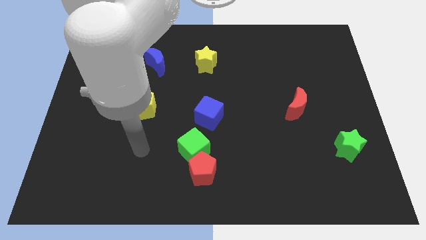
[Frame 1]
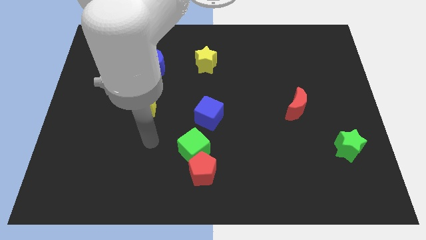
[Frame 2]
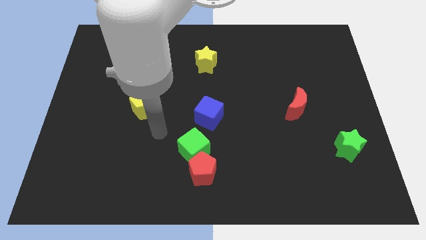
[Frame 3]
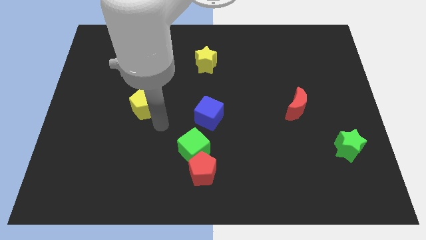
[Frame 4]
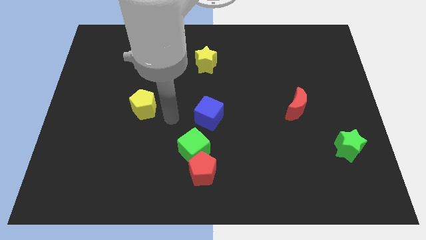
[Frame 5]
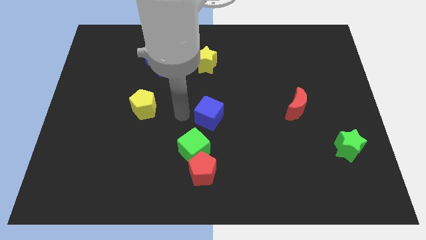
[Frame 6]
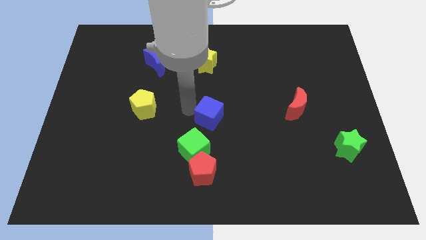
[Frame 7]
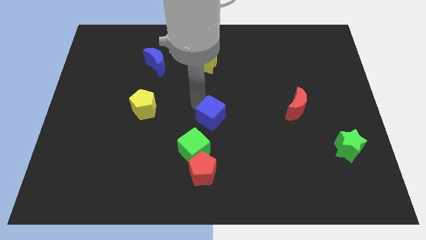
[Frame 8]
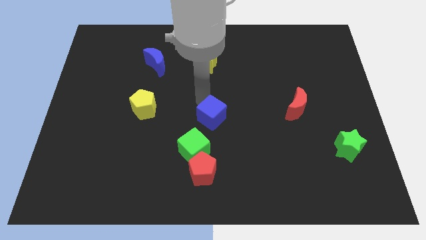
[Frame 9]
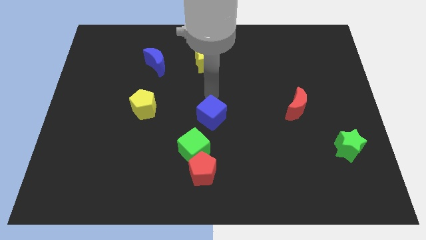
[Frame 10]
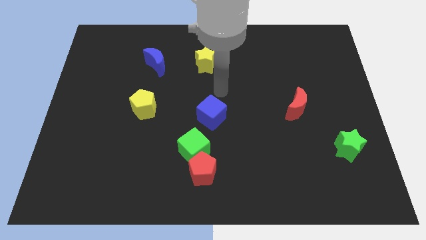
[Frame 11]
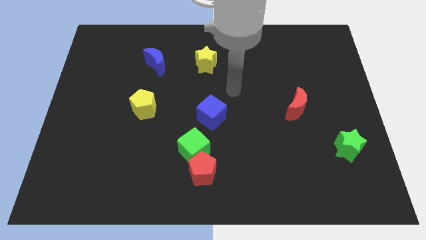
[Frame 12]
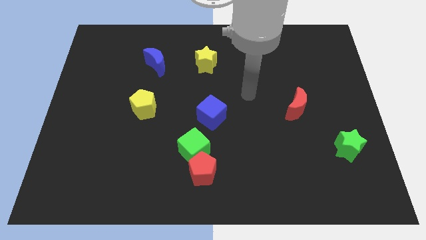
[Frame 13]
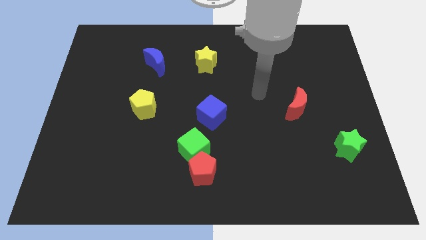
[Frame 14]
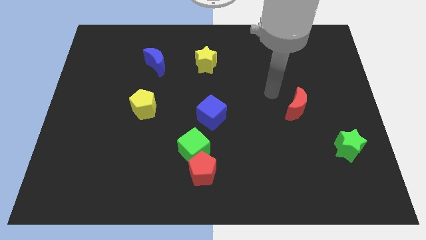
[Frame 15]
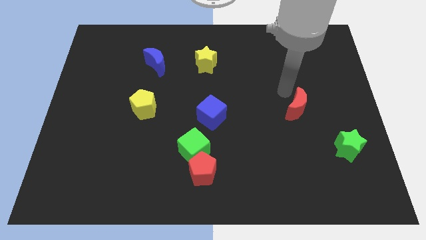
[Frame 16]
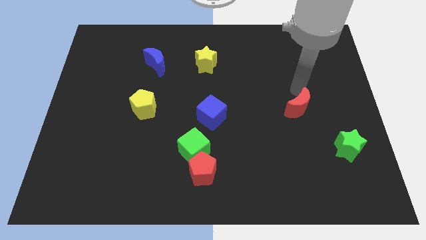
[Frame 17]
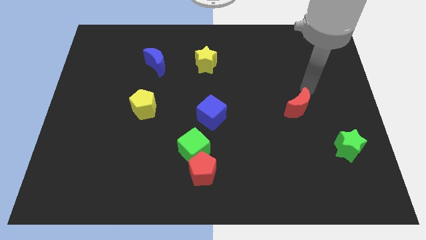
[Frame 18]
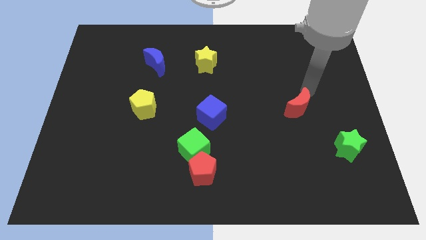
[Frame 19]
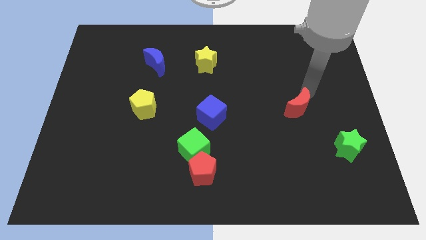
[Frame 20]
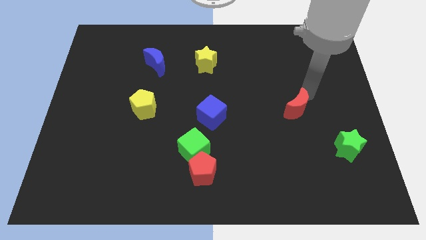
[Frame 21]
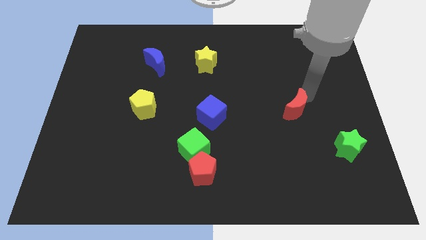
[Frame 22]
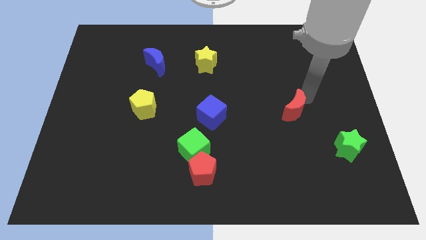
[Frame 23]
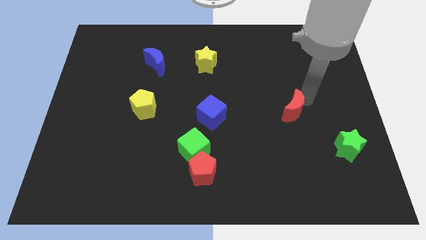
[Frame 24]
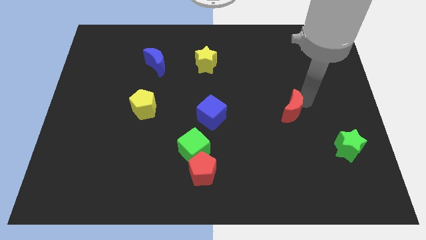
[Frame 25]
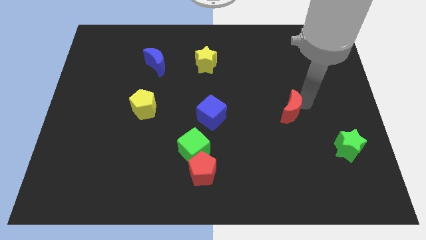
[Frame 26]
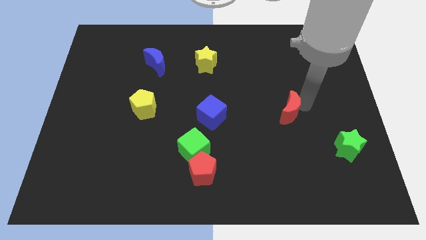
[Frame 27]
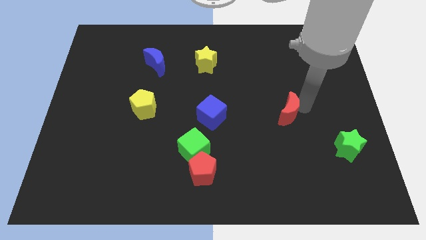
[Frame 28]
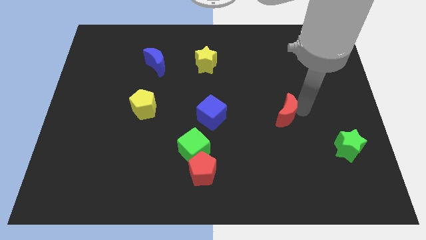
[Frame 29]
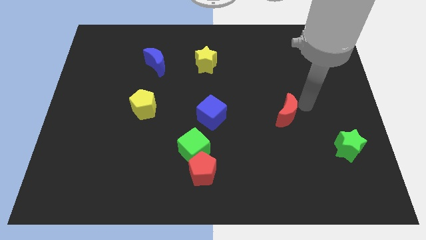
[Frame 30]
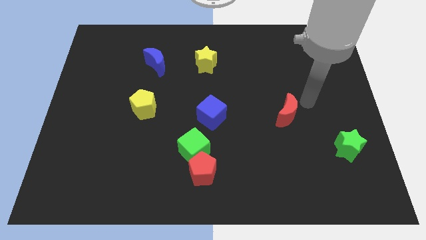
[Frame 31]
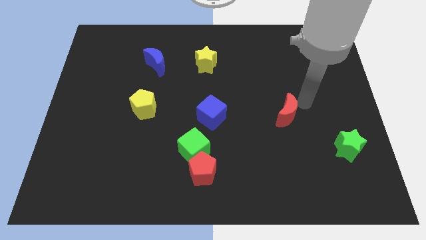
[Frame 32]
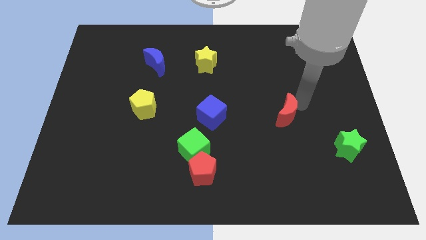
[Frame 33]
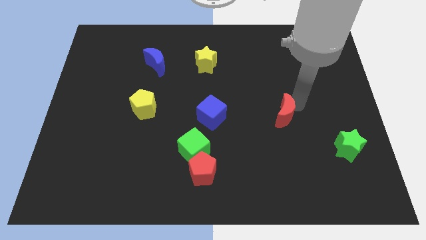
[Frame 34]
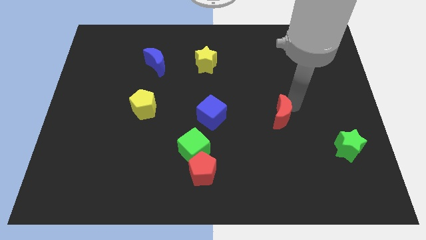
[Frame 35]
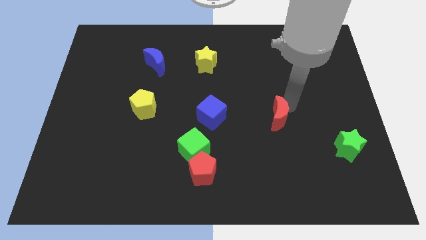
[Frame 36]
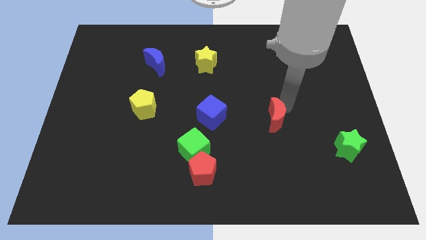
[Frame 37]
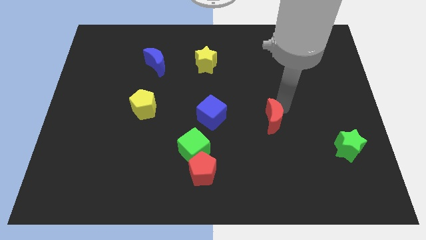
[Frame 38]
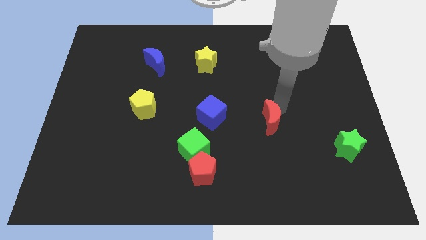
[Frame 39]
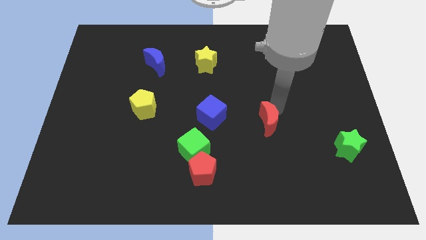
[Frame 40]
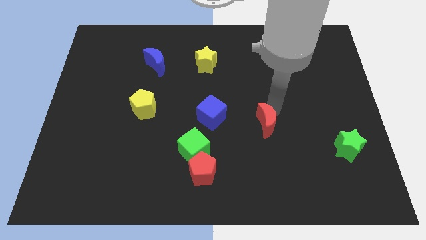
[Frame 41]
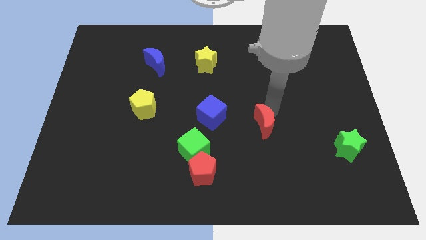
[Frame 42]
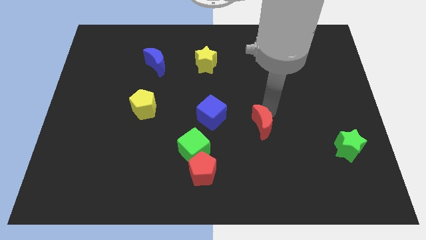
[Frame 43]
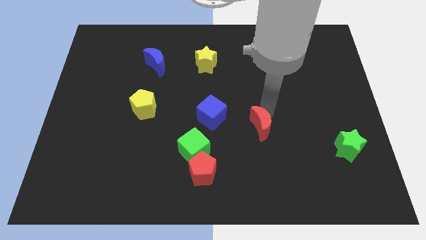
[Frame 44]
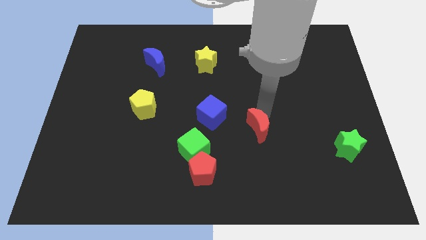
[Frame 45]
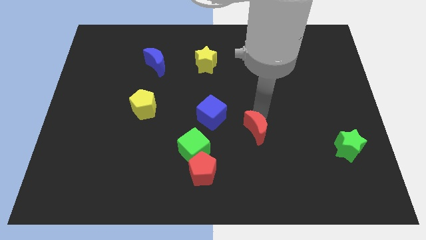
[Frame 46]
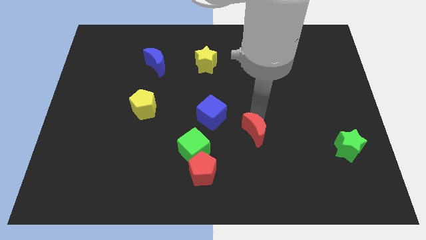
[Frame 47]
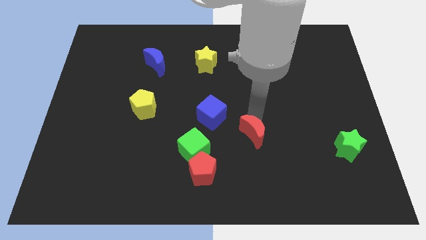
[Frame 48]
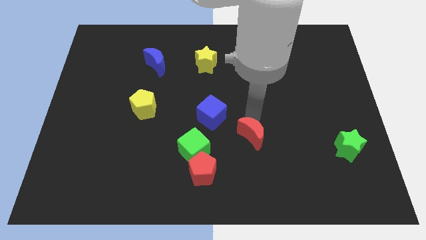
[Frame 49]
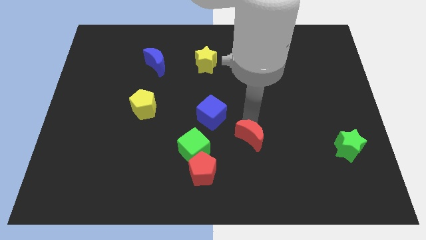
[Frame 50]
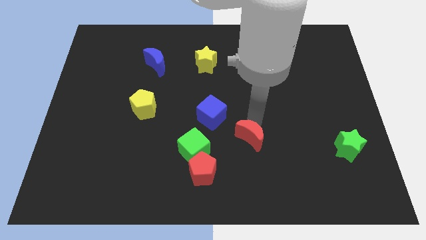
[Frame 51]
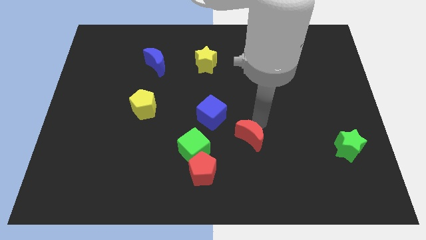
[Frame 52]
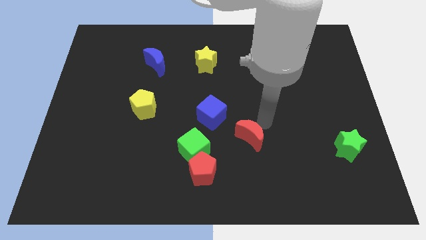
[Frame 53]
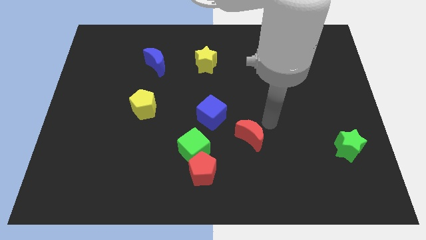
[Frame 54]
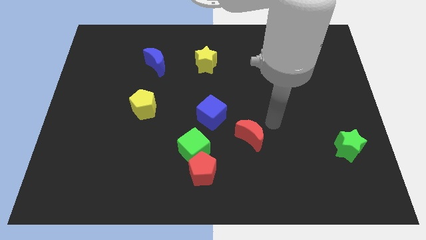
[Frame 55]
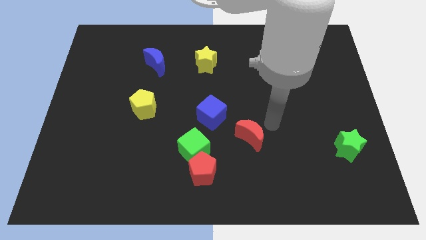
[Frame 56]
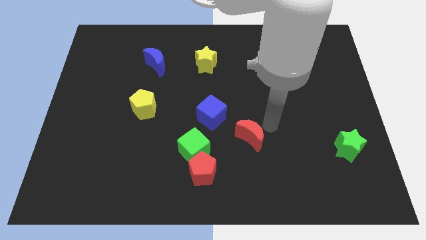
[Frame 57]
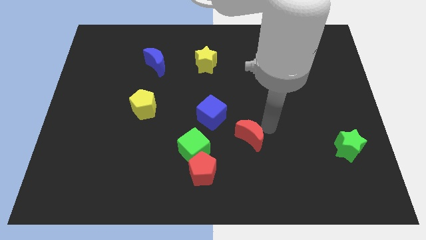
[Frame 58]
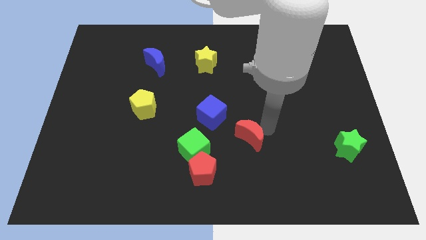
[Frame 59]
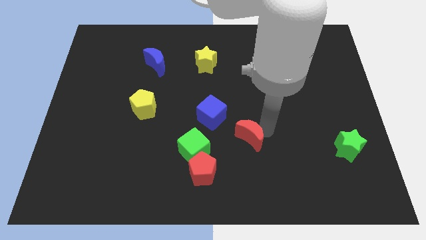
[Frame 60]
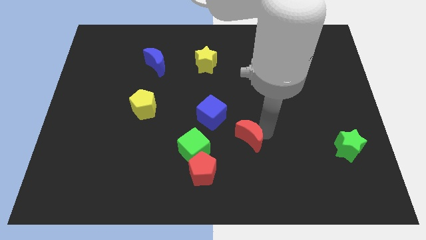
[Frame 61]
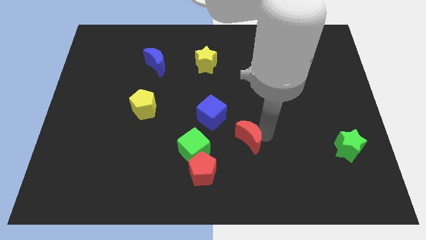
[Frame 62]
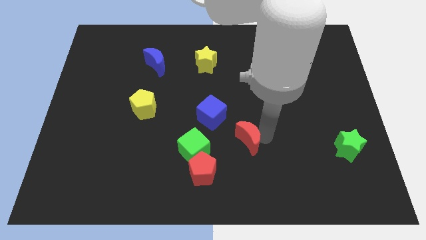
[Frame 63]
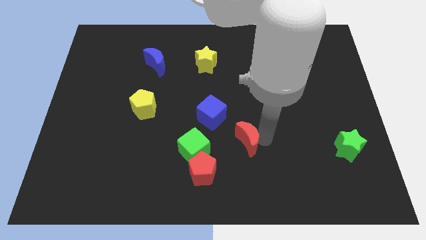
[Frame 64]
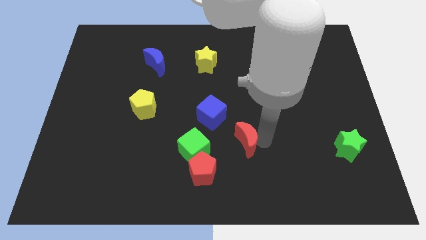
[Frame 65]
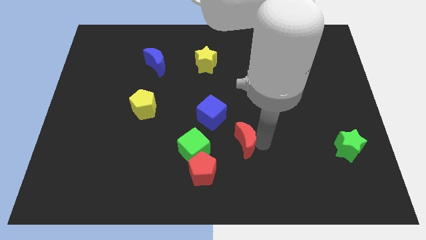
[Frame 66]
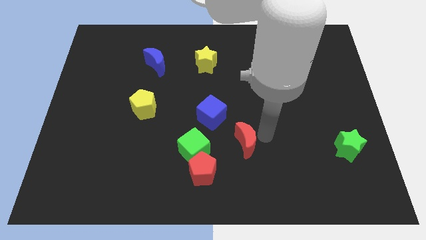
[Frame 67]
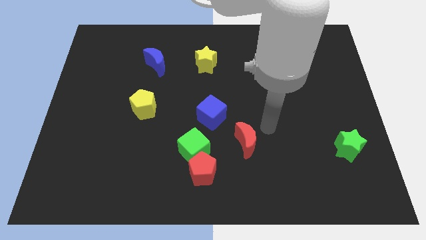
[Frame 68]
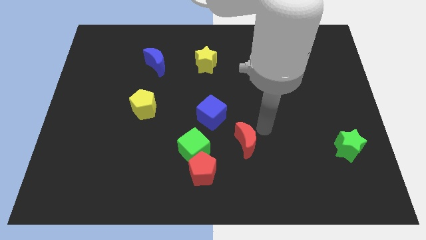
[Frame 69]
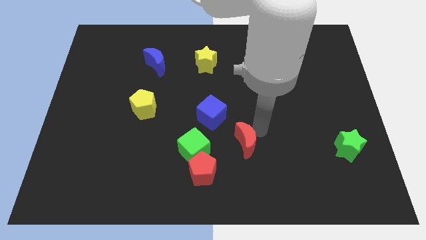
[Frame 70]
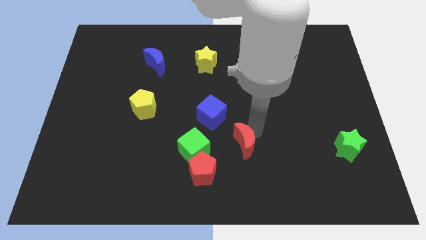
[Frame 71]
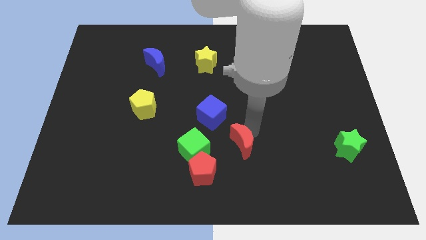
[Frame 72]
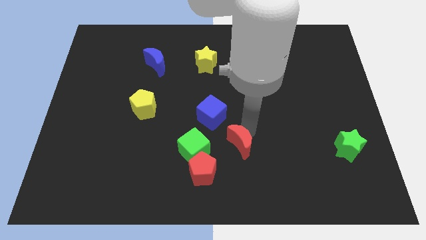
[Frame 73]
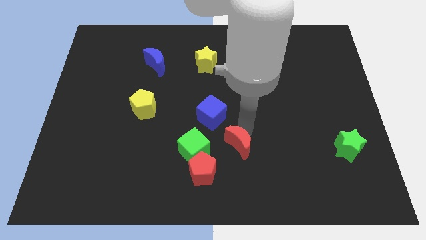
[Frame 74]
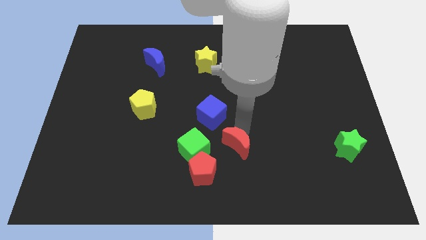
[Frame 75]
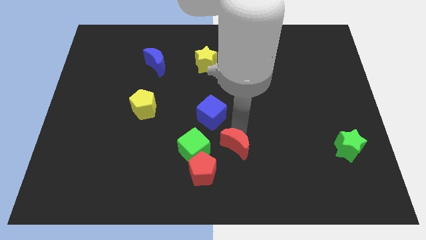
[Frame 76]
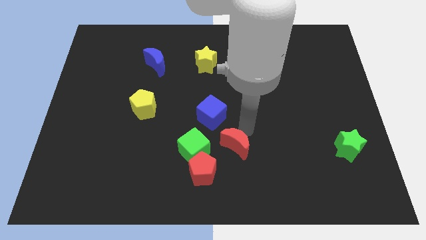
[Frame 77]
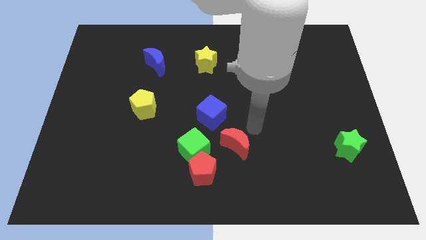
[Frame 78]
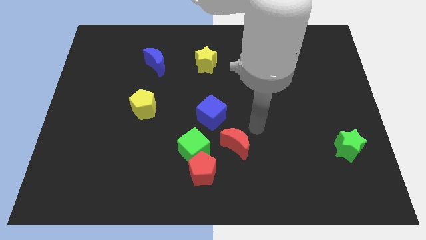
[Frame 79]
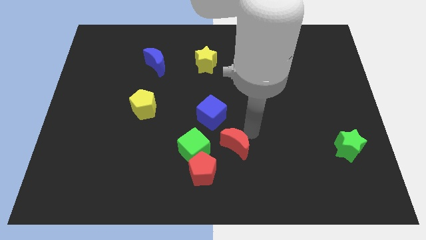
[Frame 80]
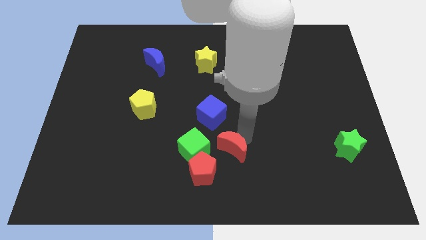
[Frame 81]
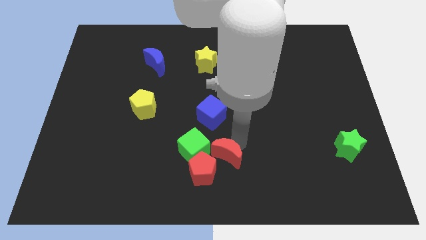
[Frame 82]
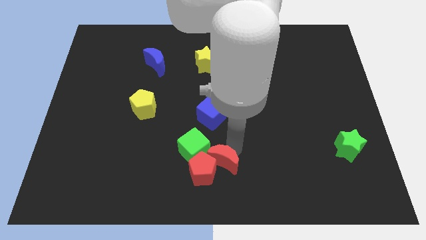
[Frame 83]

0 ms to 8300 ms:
push the red moon close to the red pentagon
